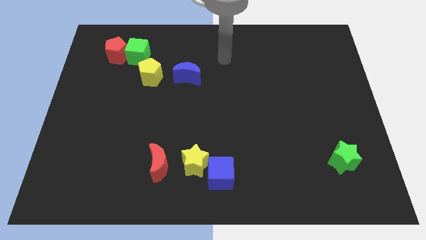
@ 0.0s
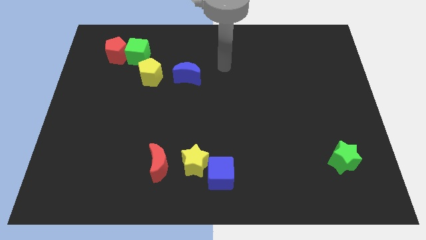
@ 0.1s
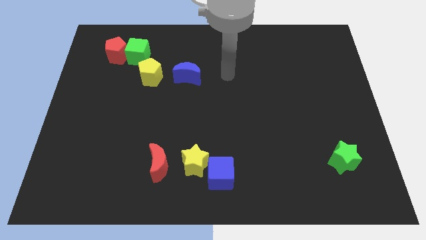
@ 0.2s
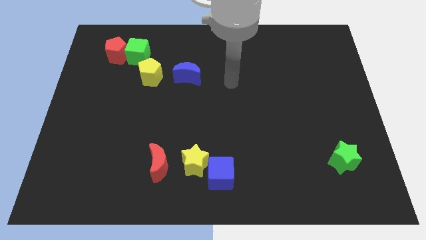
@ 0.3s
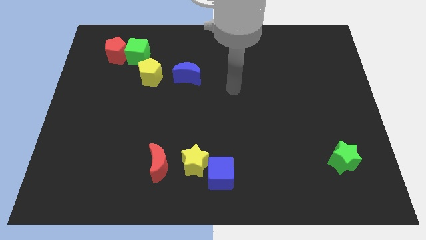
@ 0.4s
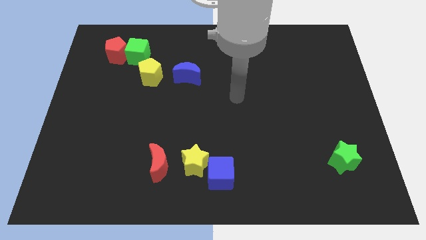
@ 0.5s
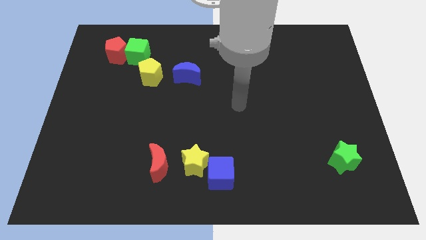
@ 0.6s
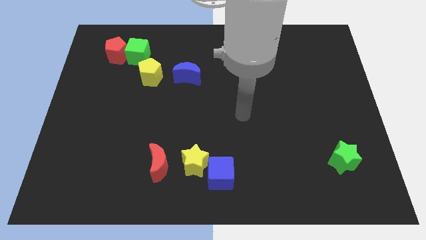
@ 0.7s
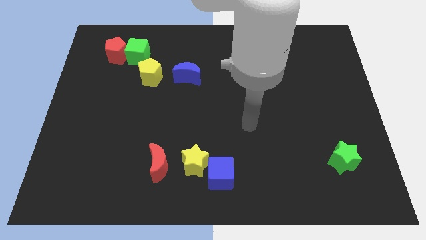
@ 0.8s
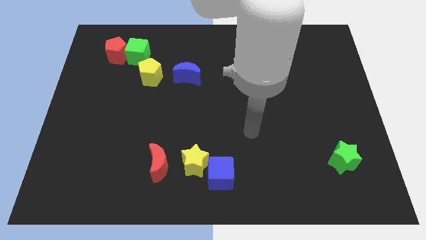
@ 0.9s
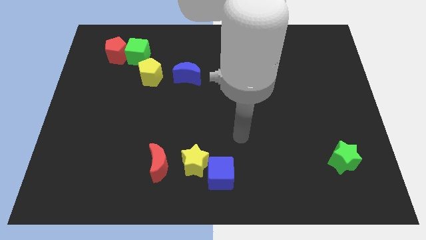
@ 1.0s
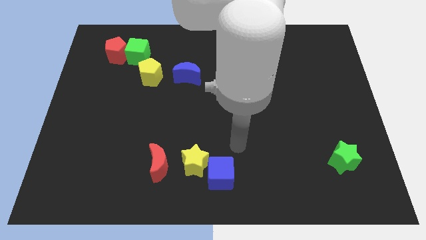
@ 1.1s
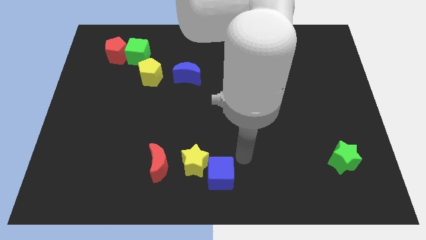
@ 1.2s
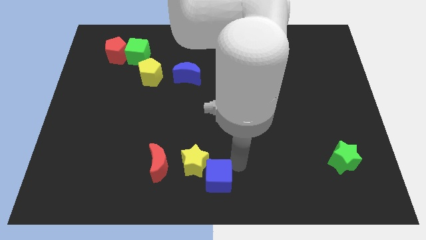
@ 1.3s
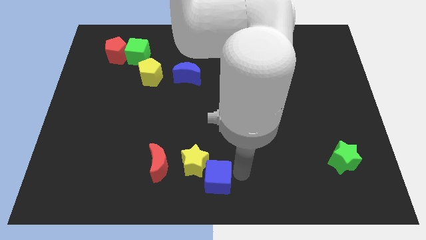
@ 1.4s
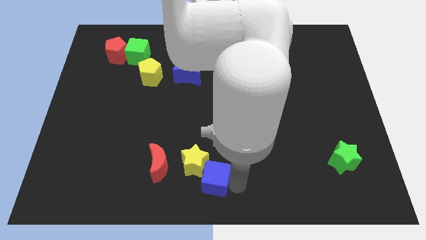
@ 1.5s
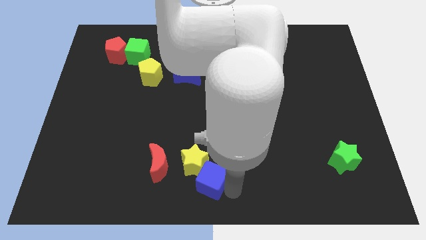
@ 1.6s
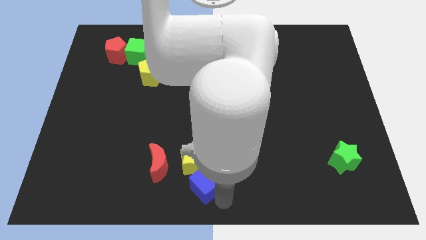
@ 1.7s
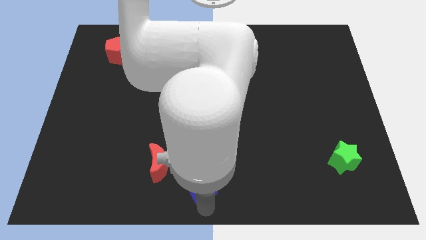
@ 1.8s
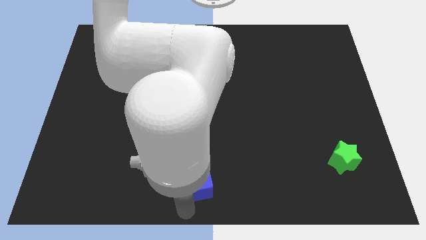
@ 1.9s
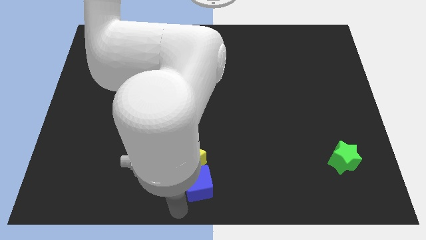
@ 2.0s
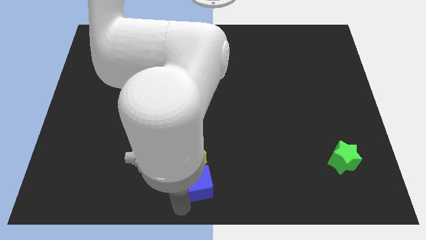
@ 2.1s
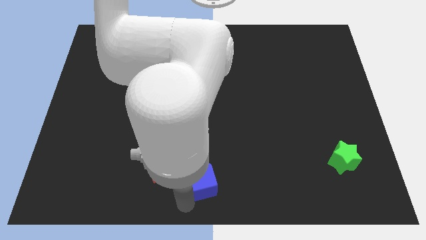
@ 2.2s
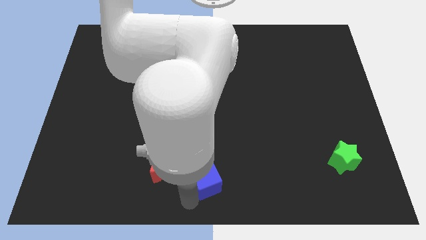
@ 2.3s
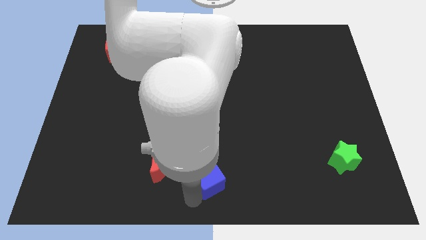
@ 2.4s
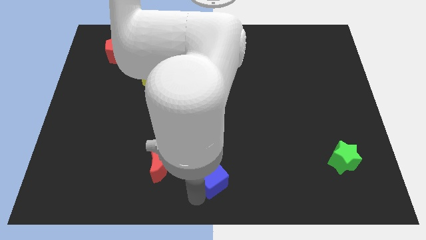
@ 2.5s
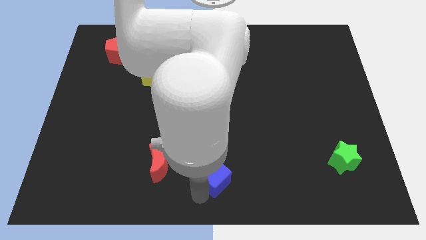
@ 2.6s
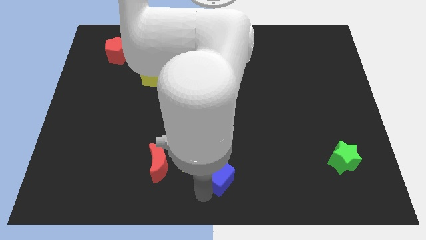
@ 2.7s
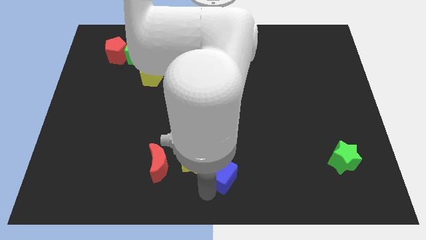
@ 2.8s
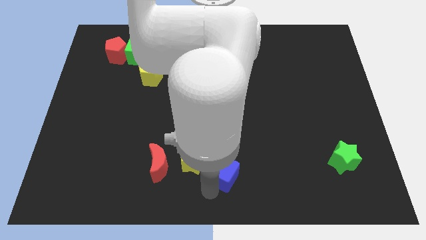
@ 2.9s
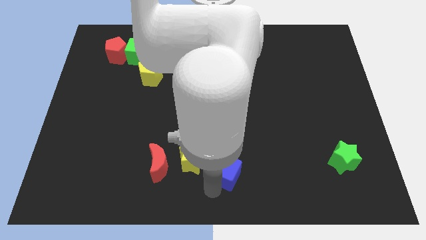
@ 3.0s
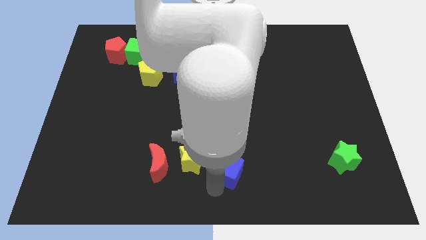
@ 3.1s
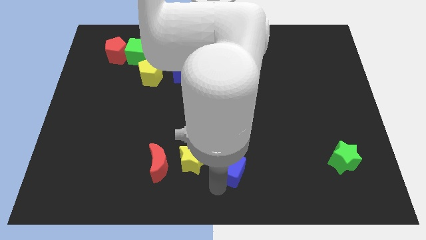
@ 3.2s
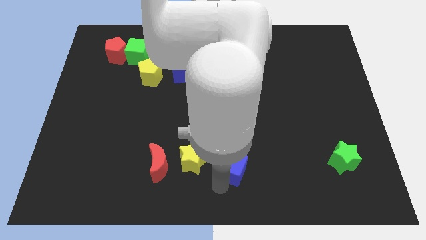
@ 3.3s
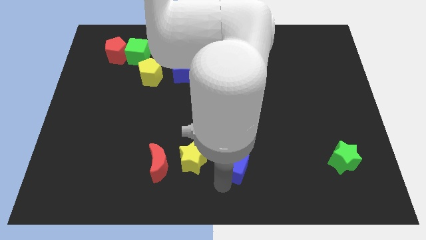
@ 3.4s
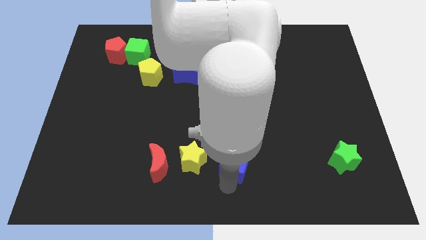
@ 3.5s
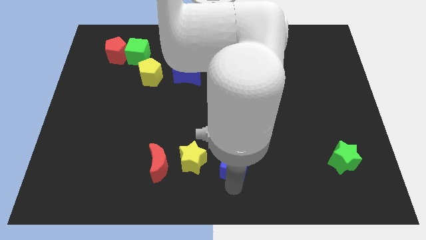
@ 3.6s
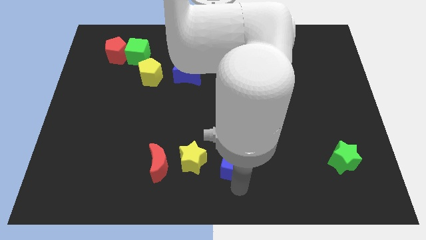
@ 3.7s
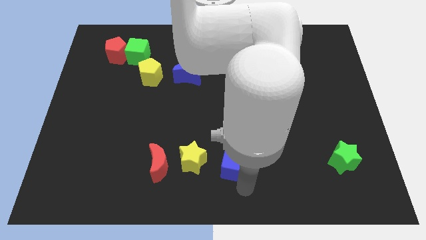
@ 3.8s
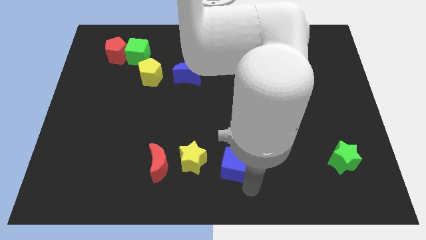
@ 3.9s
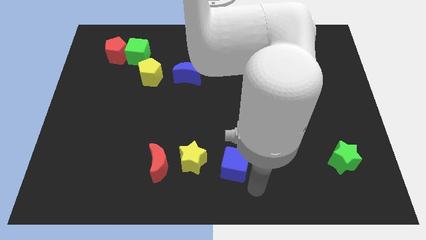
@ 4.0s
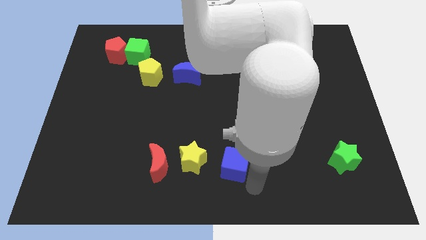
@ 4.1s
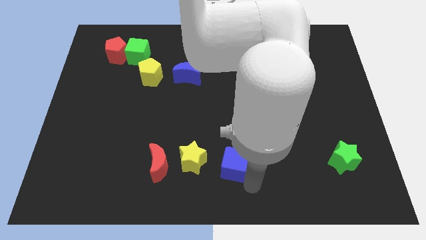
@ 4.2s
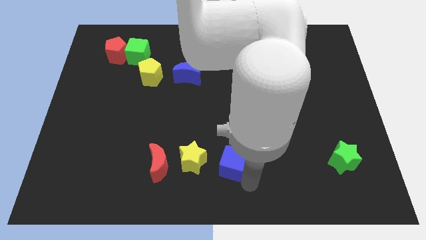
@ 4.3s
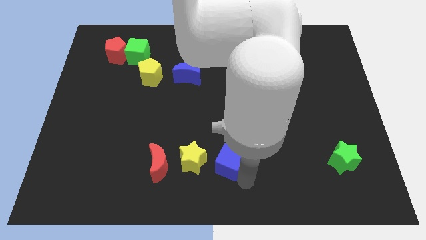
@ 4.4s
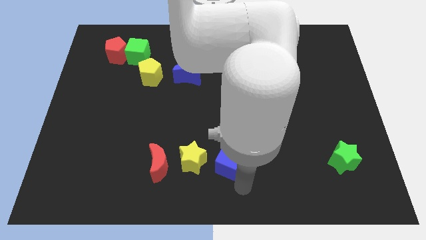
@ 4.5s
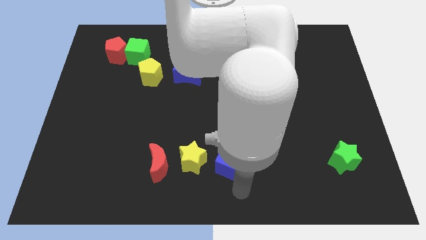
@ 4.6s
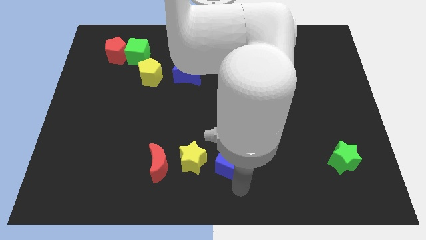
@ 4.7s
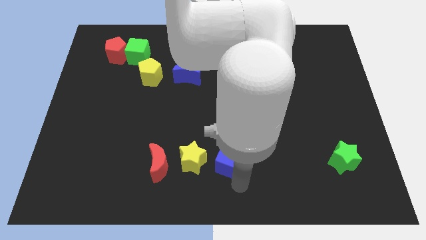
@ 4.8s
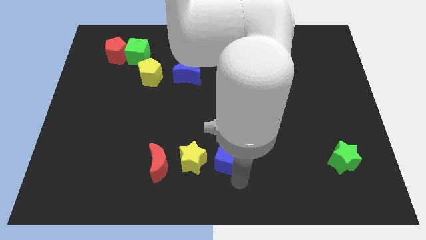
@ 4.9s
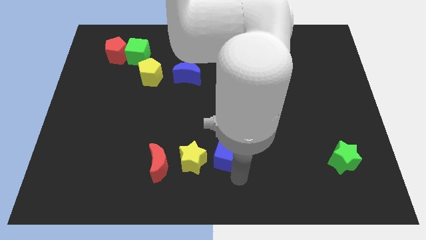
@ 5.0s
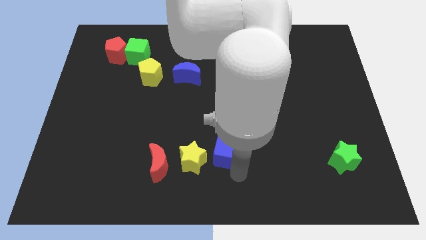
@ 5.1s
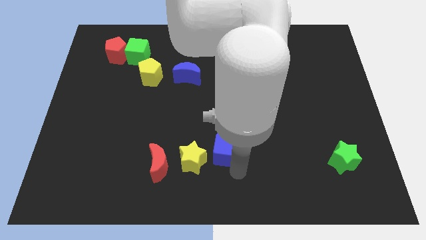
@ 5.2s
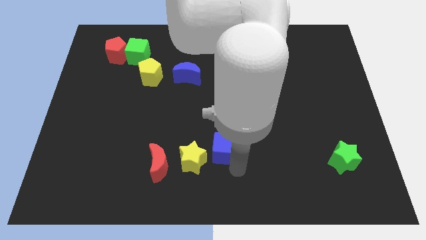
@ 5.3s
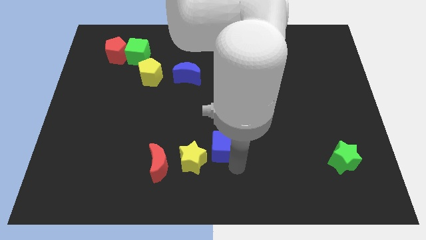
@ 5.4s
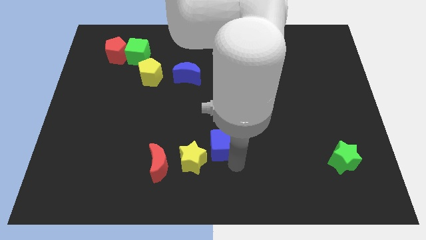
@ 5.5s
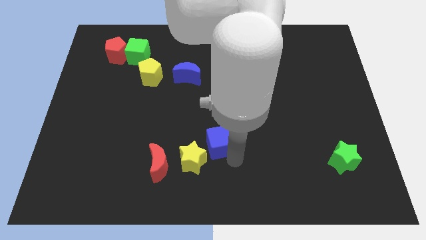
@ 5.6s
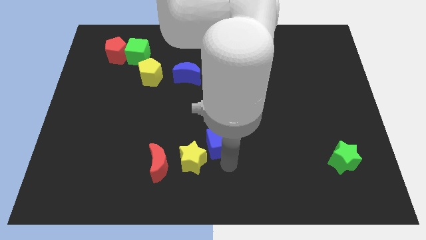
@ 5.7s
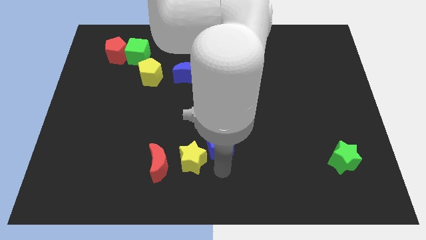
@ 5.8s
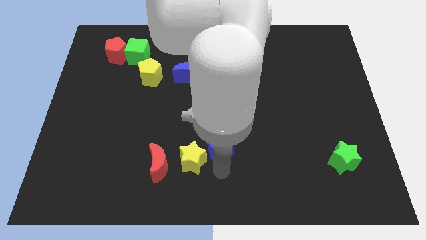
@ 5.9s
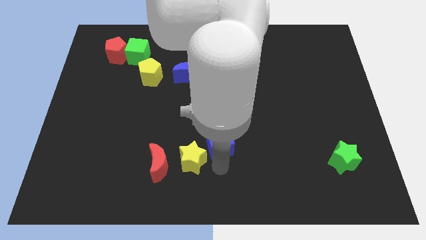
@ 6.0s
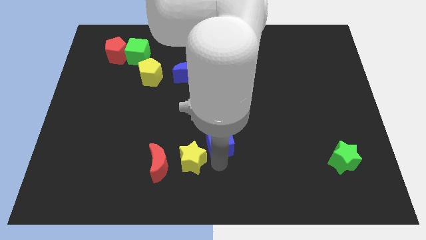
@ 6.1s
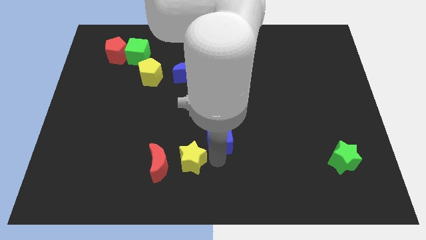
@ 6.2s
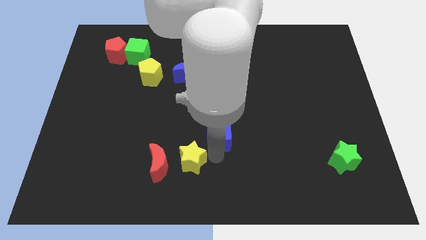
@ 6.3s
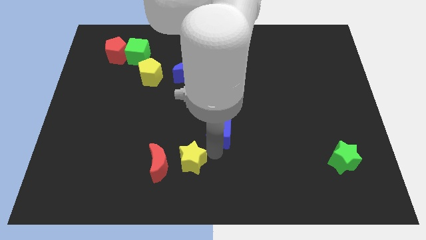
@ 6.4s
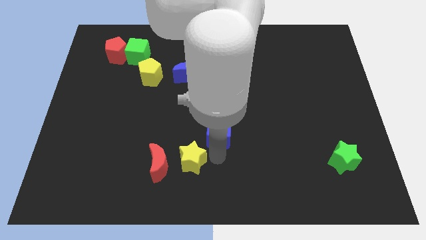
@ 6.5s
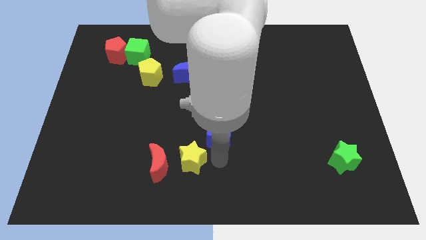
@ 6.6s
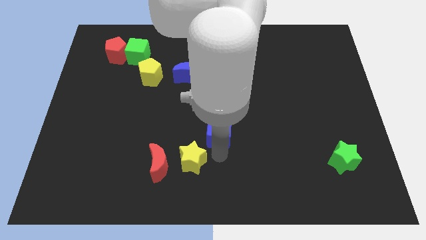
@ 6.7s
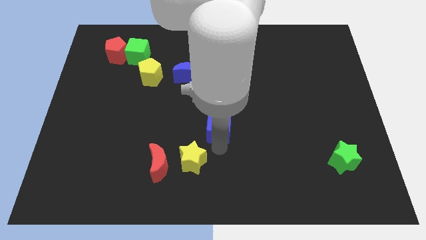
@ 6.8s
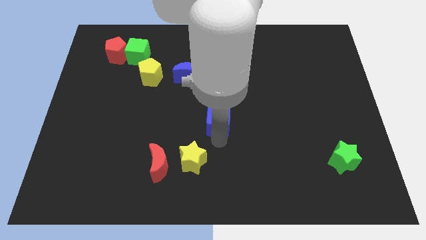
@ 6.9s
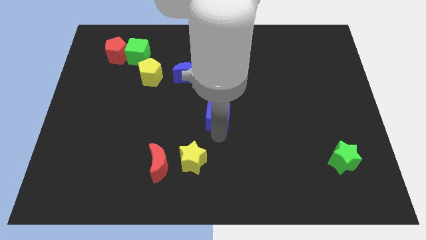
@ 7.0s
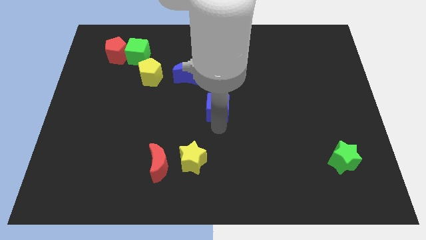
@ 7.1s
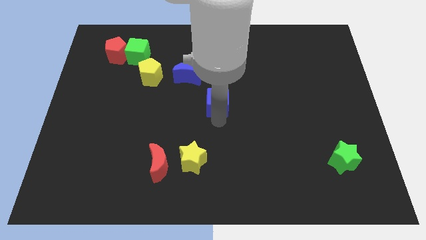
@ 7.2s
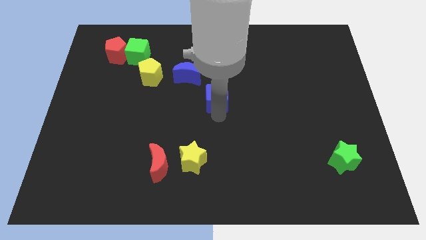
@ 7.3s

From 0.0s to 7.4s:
slide the blue cube upwards

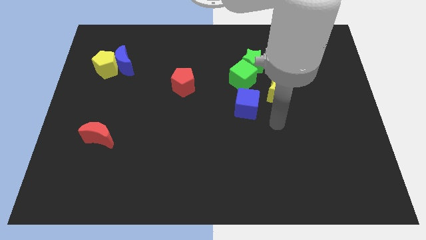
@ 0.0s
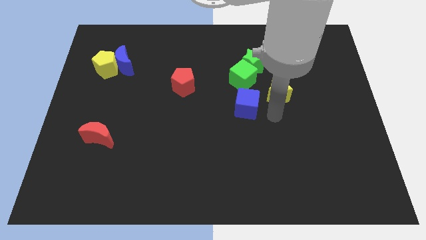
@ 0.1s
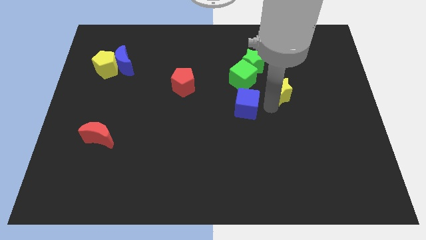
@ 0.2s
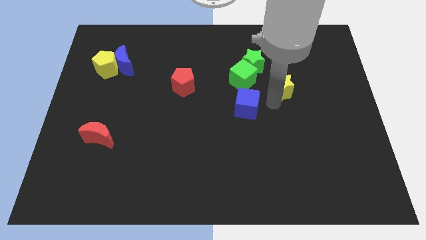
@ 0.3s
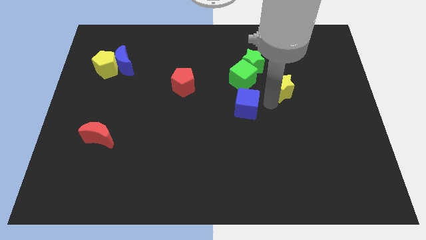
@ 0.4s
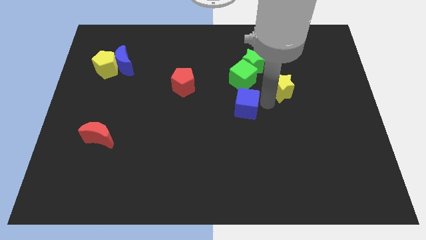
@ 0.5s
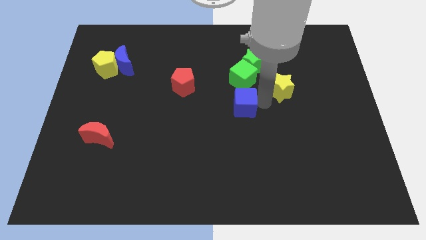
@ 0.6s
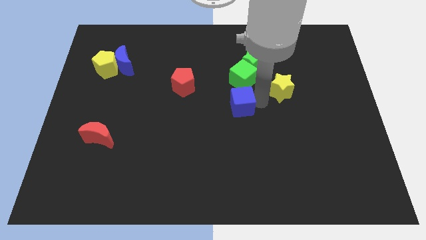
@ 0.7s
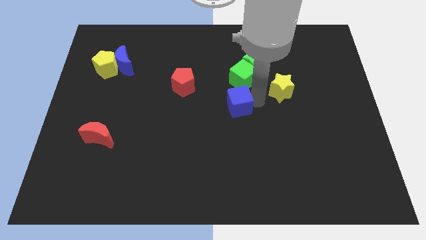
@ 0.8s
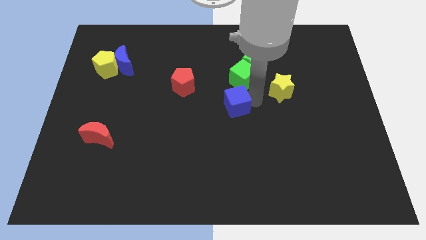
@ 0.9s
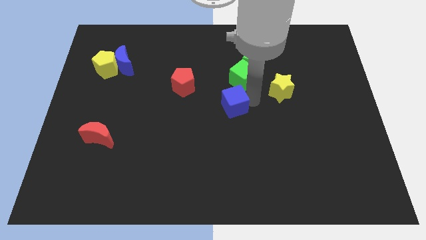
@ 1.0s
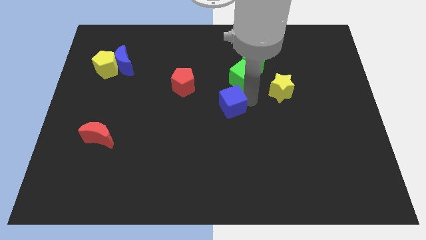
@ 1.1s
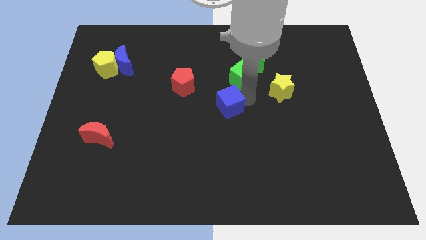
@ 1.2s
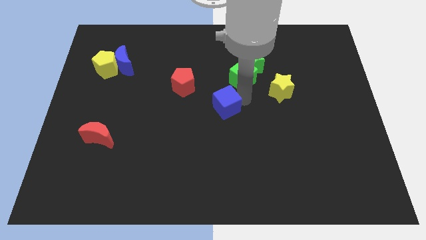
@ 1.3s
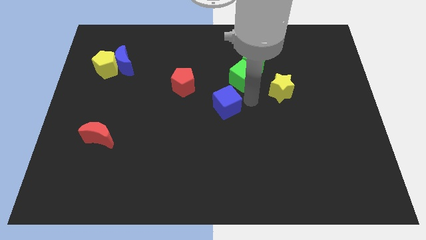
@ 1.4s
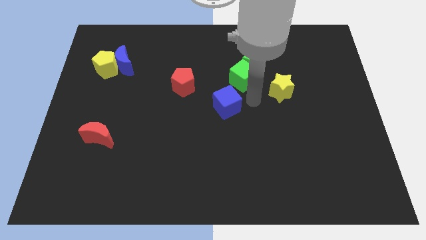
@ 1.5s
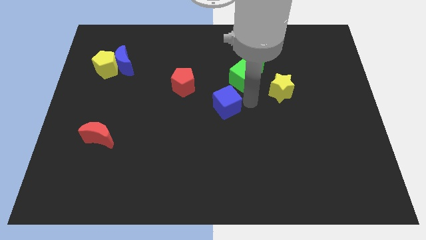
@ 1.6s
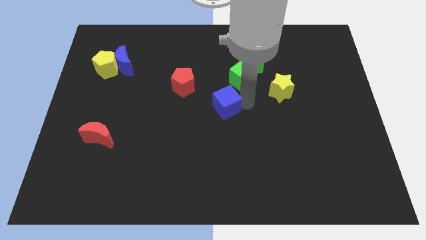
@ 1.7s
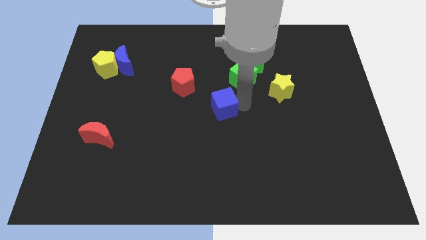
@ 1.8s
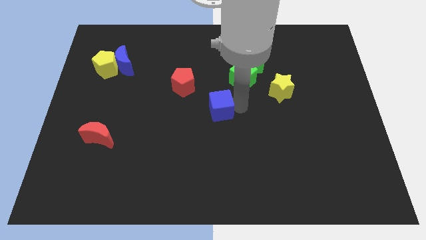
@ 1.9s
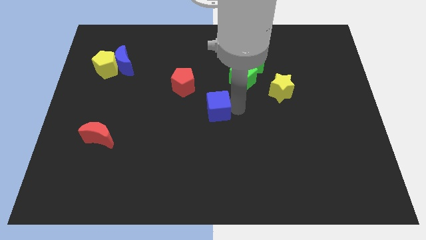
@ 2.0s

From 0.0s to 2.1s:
slightly push the blue cube left
